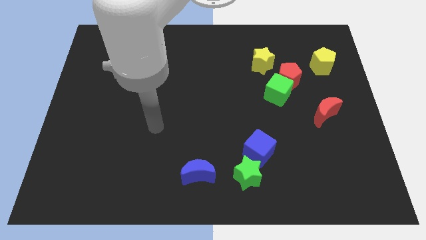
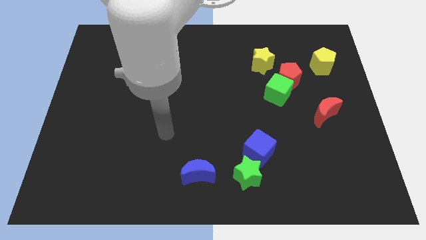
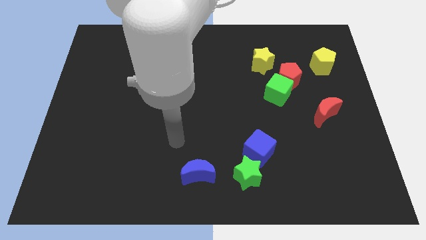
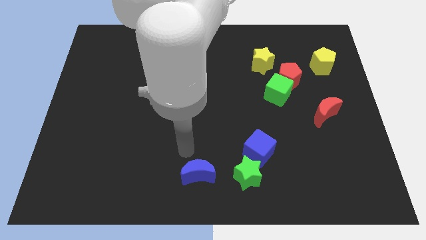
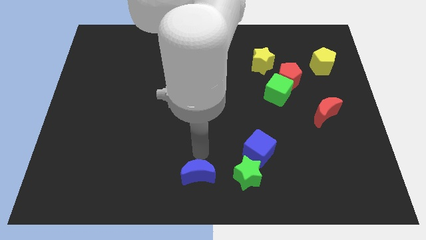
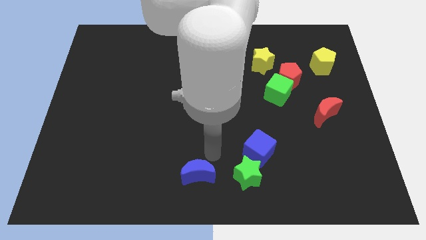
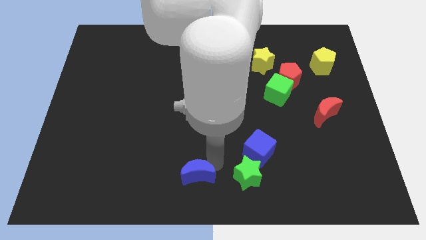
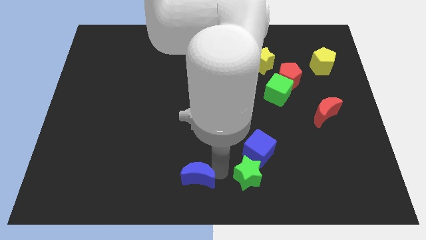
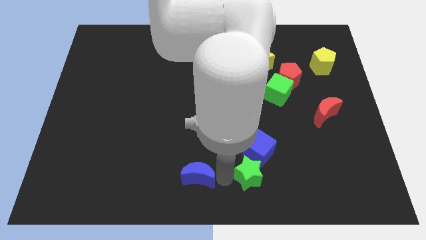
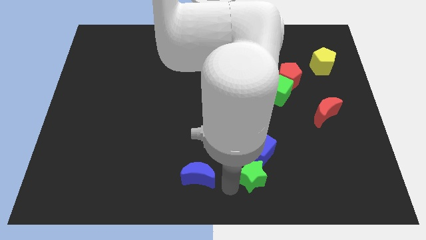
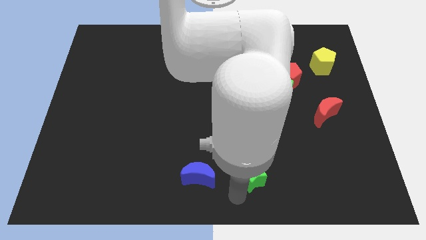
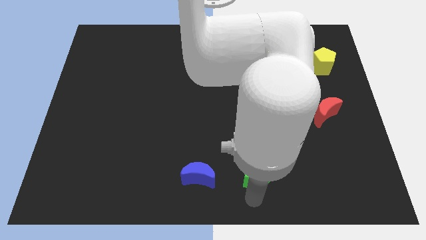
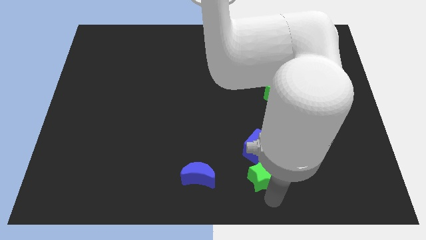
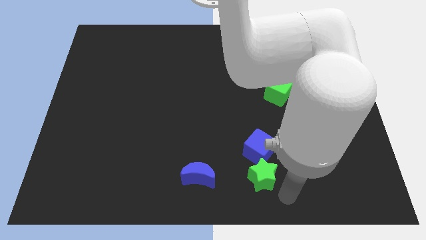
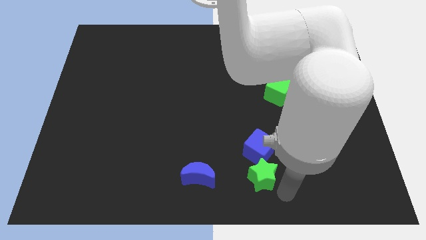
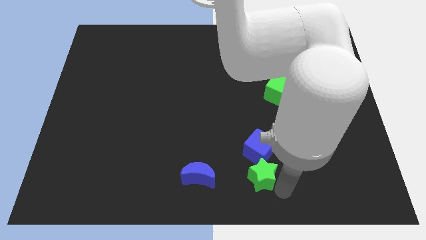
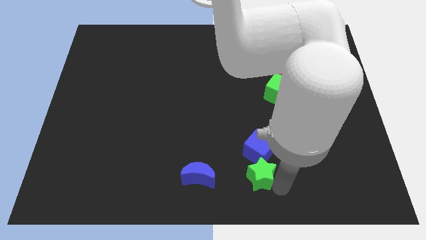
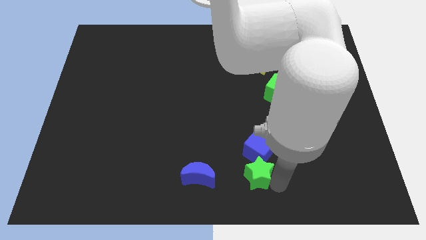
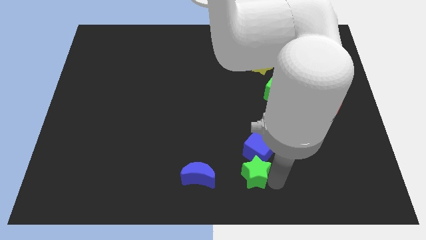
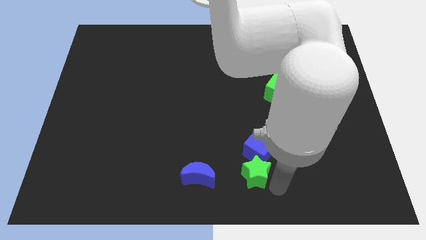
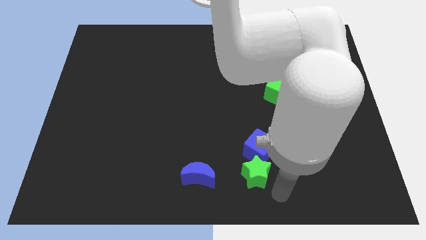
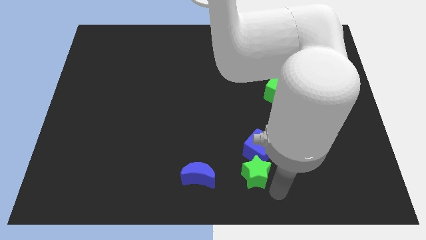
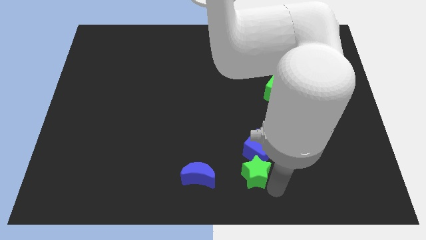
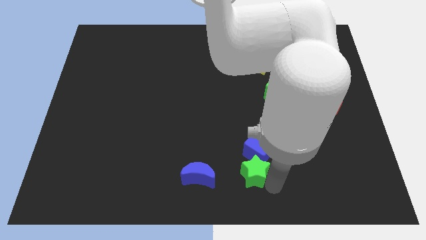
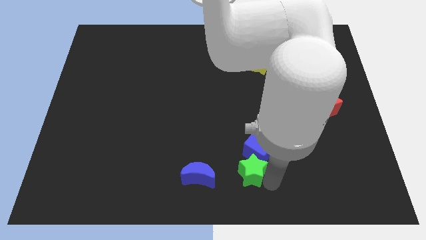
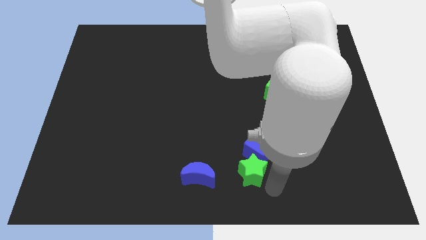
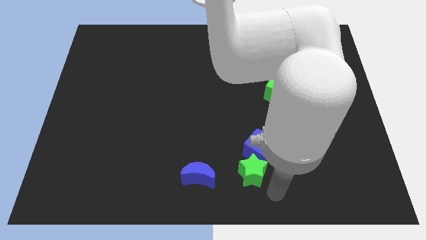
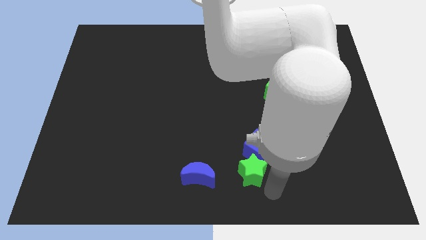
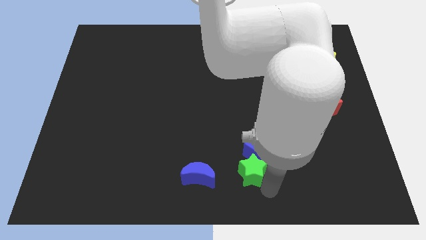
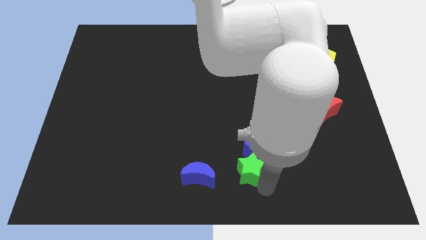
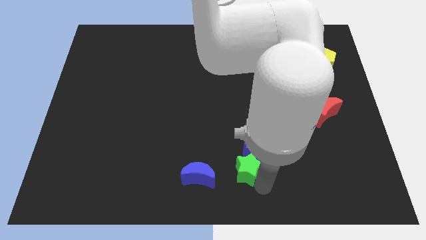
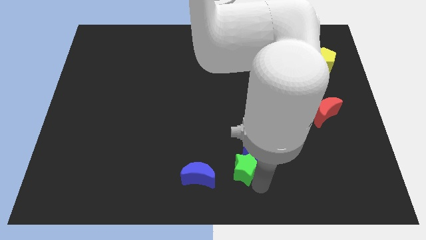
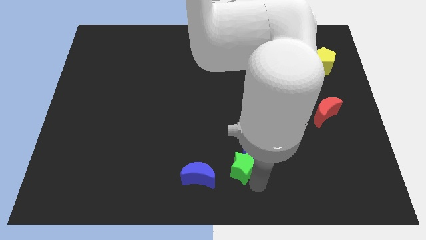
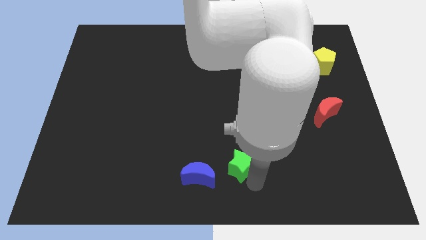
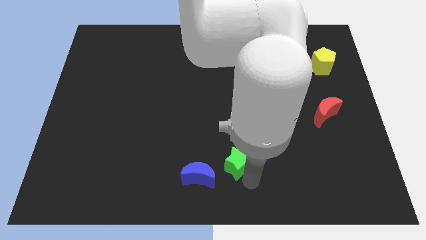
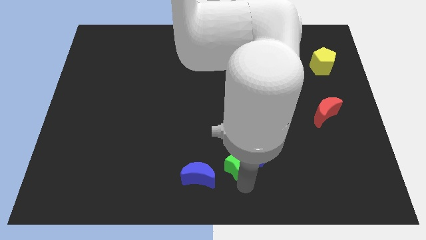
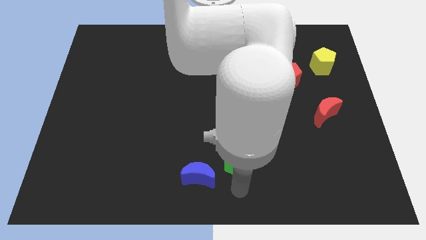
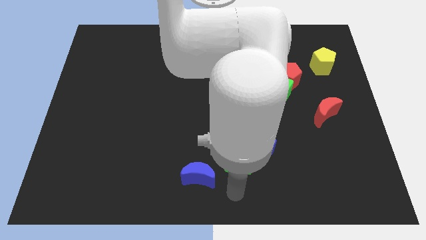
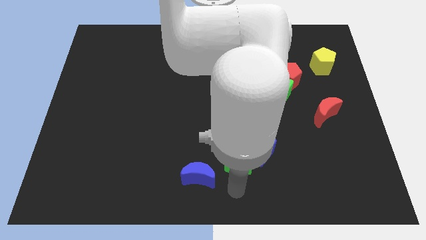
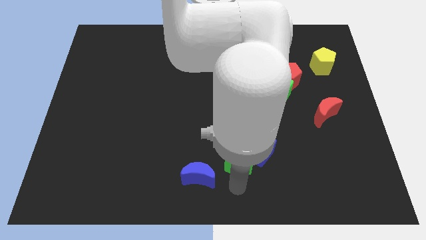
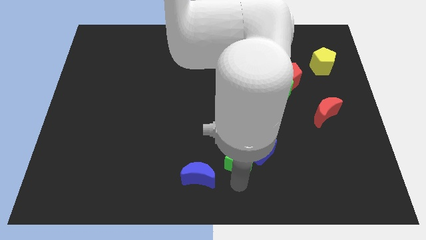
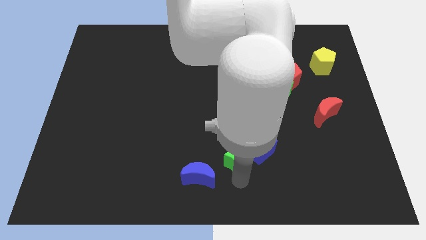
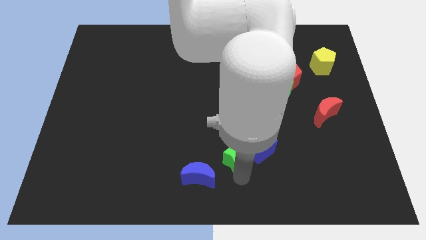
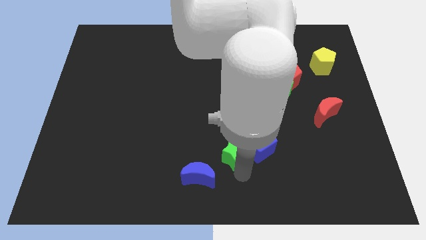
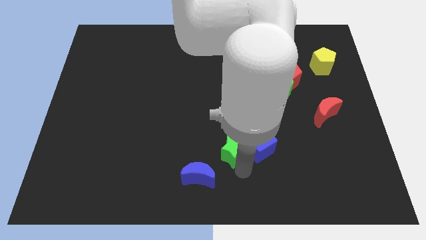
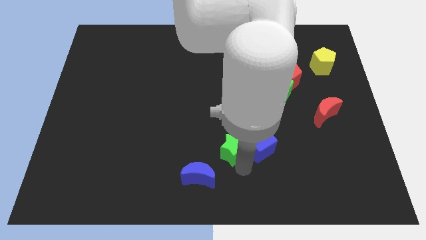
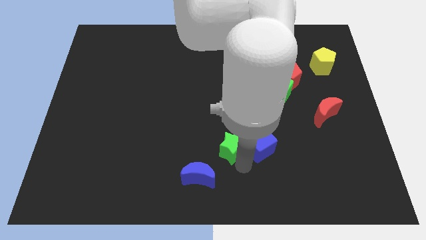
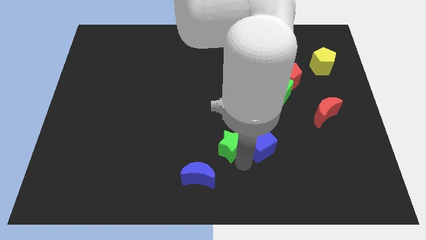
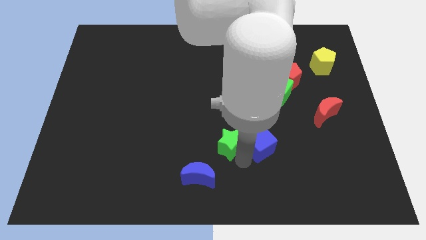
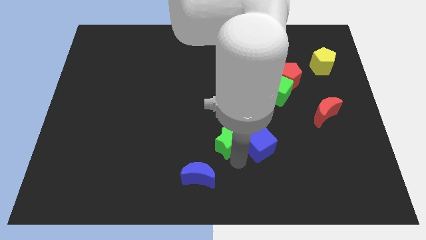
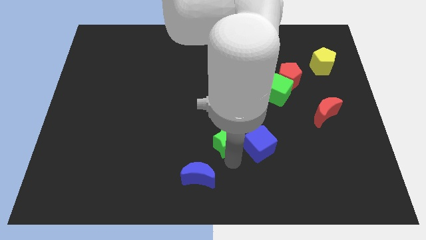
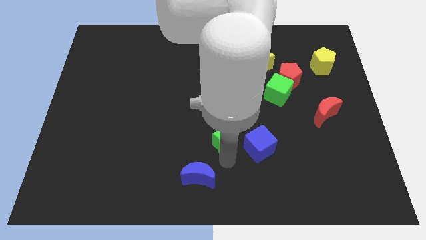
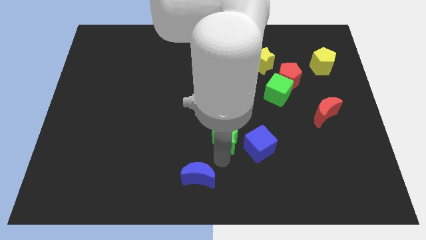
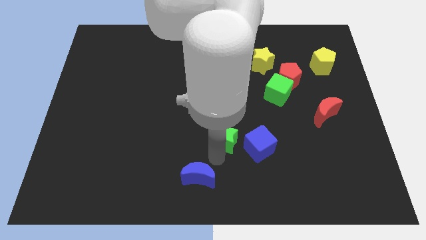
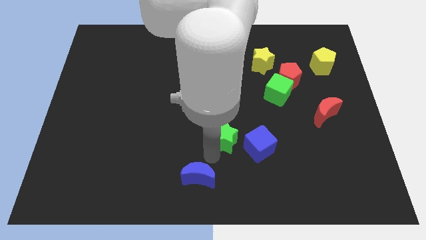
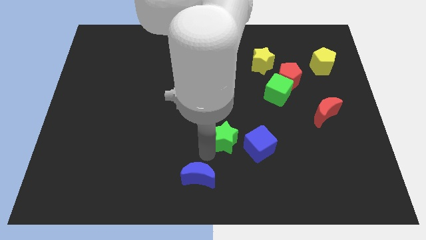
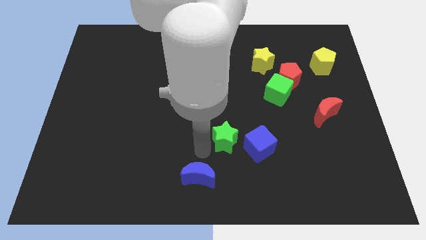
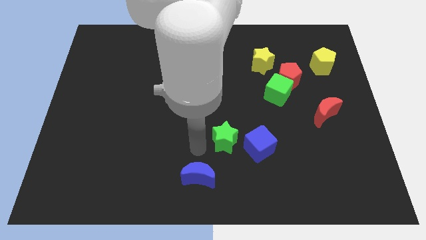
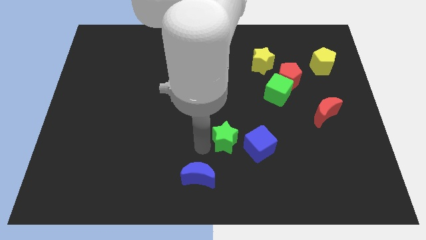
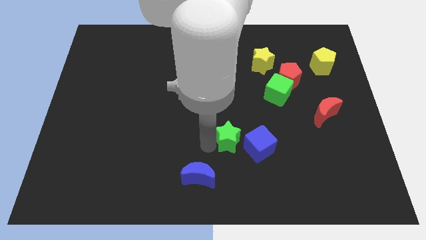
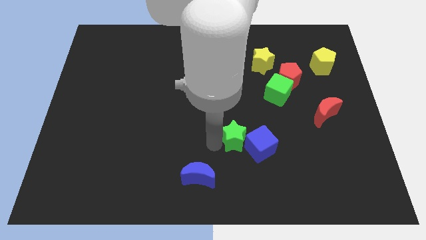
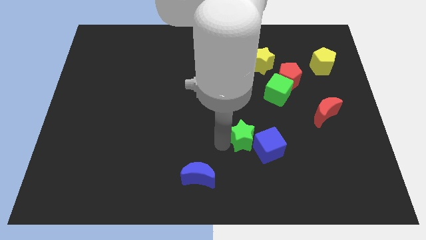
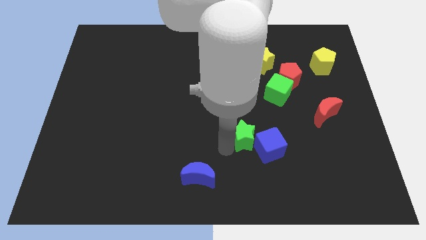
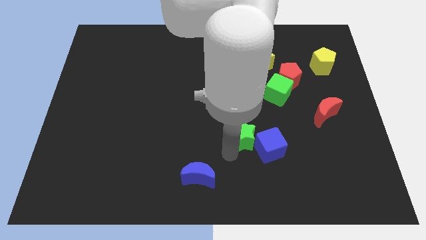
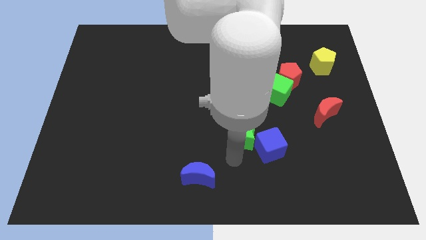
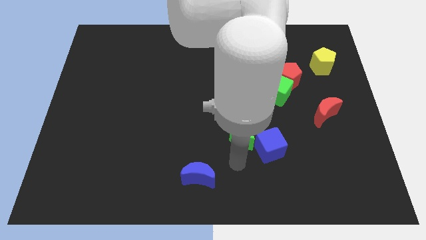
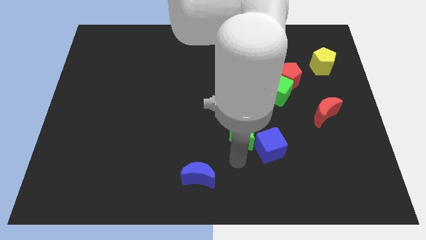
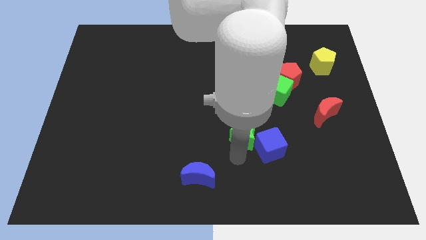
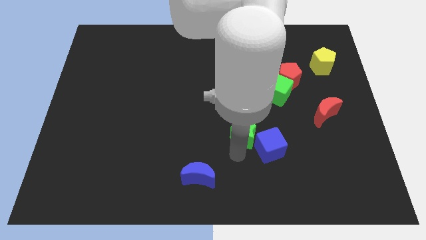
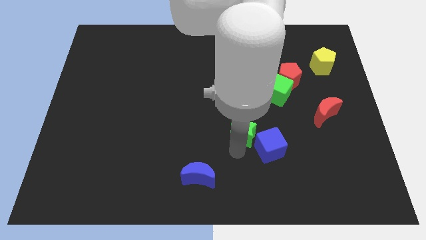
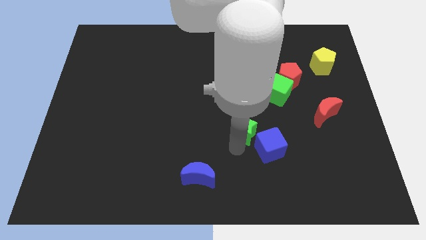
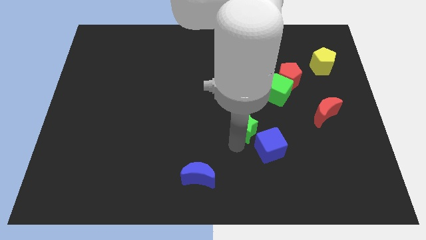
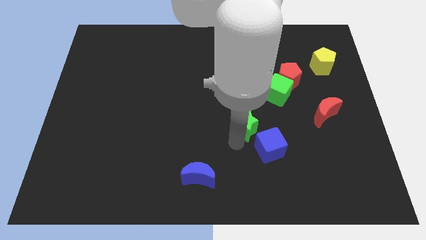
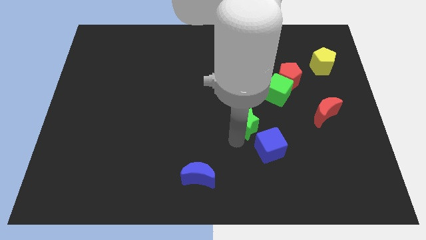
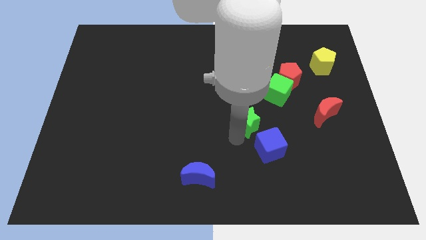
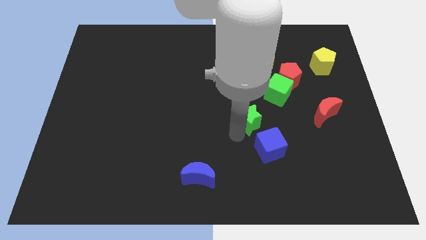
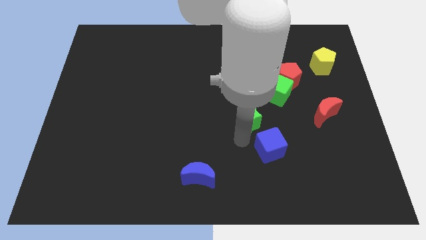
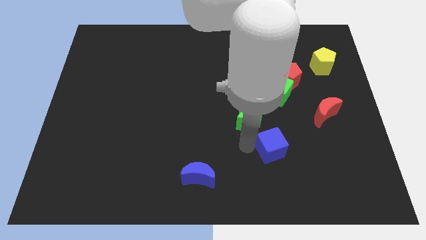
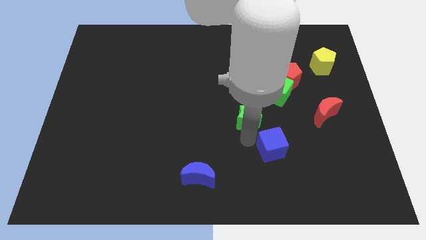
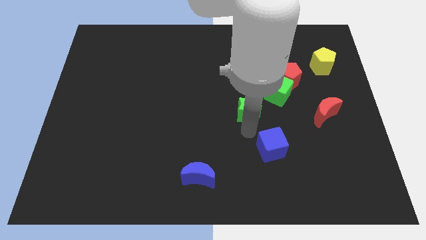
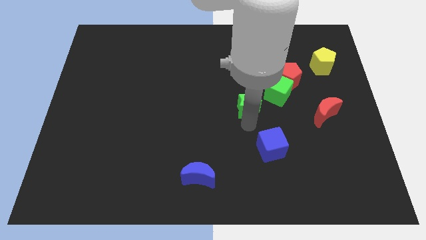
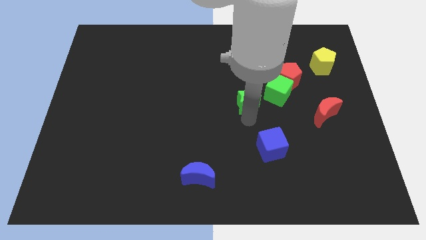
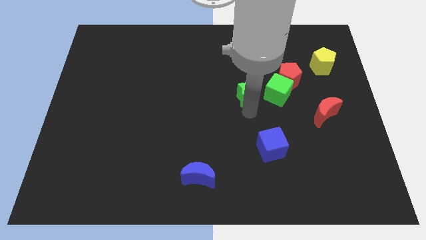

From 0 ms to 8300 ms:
slide the green star upwards
